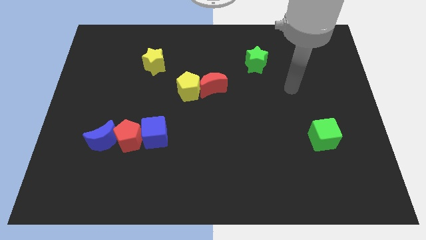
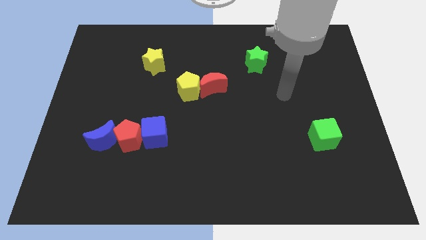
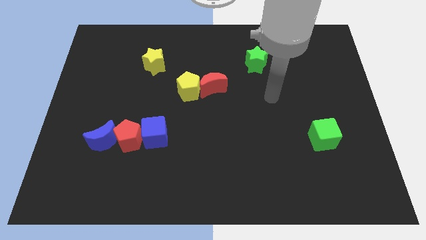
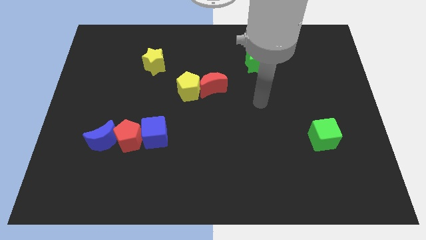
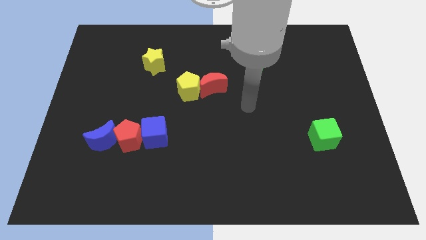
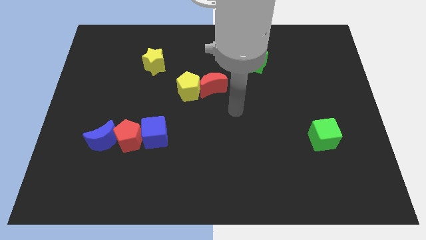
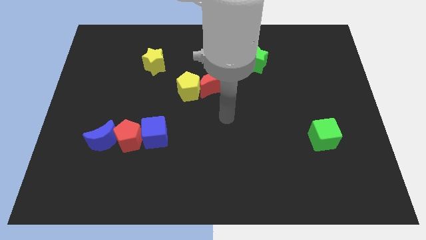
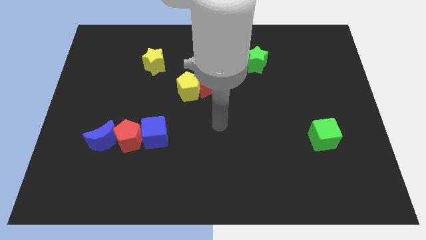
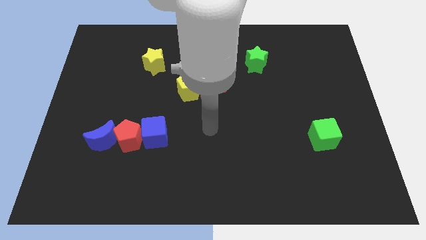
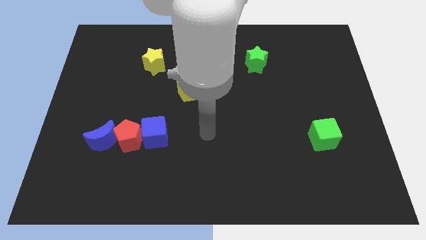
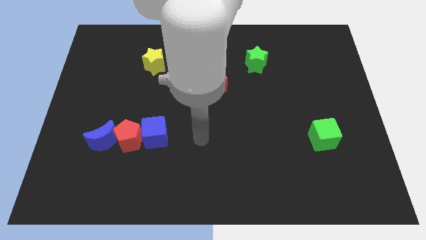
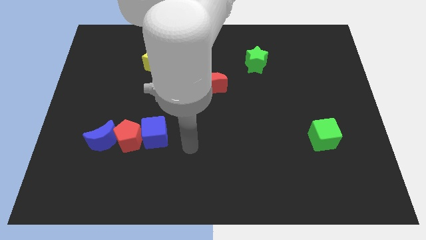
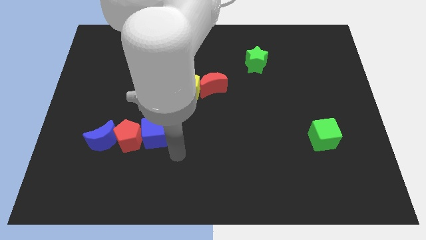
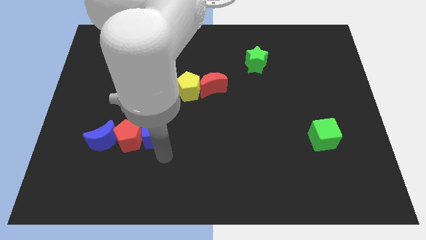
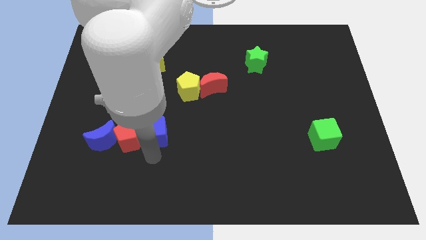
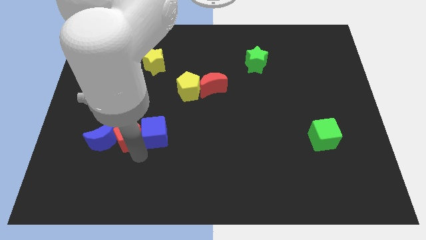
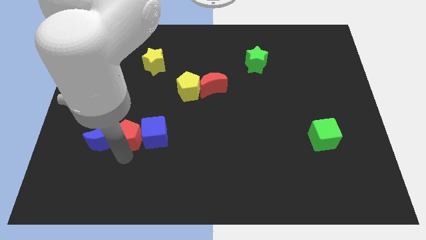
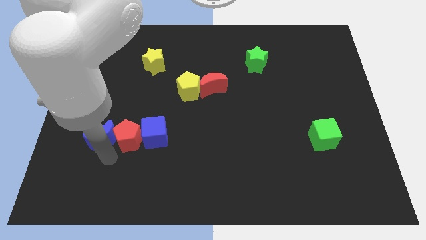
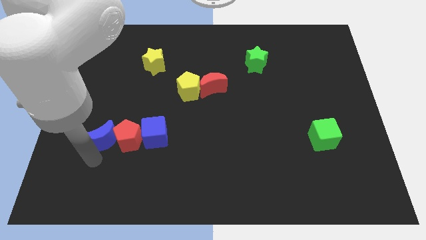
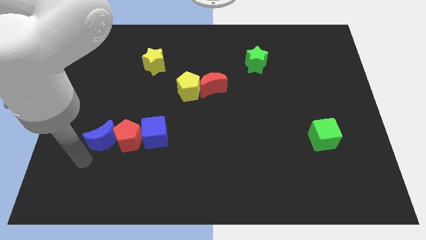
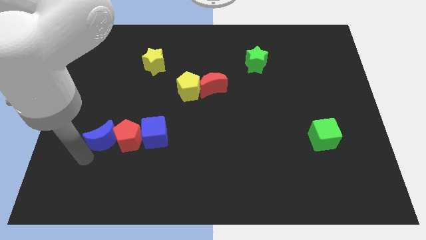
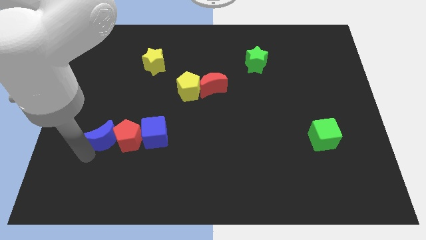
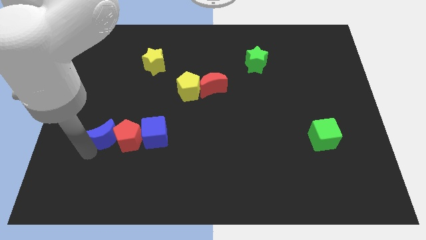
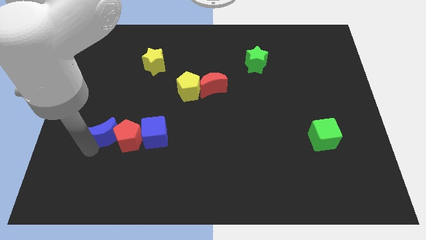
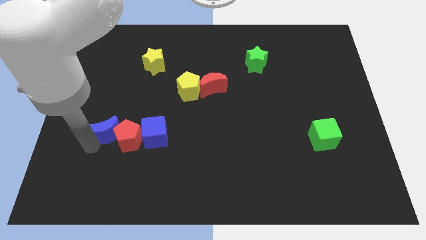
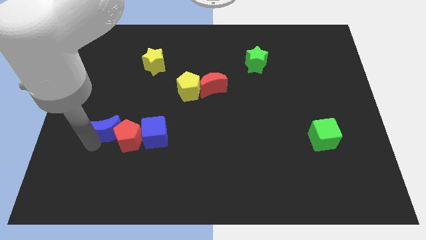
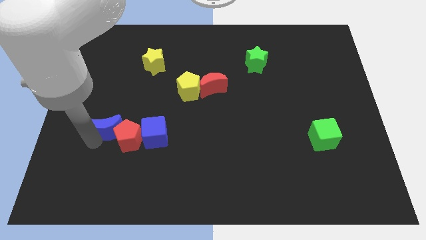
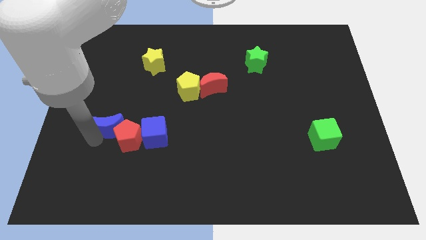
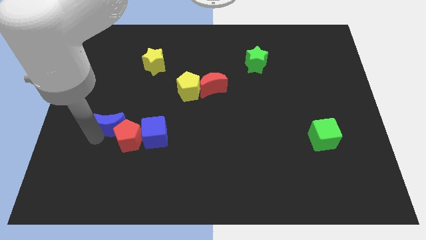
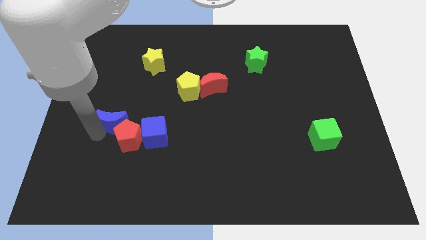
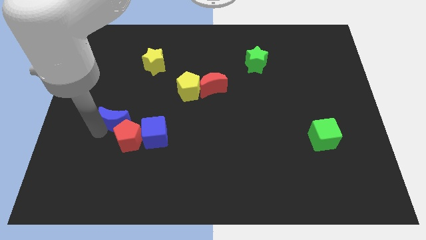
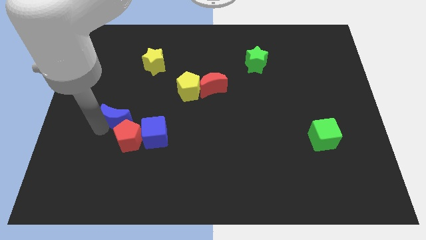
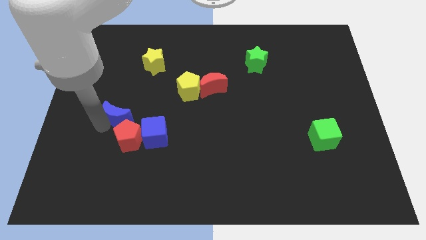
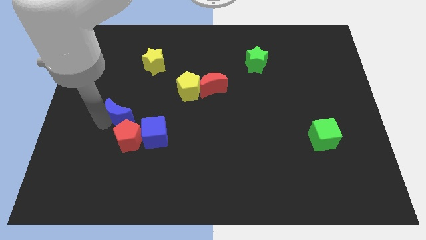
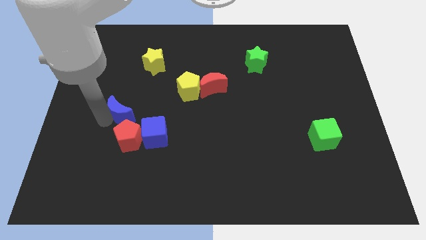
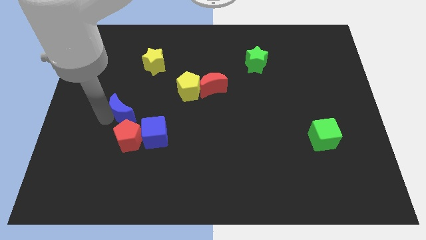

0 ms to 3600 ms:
push the blue moon a bit diagonally upwards and right

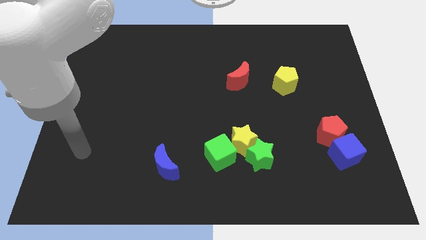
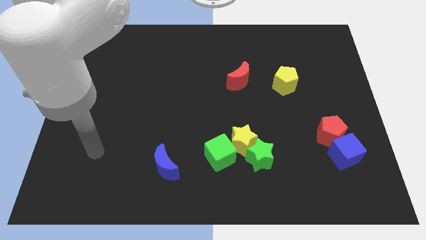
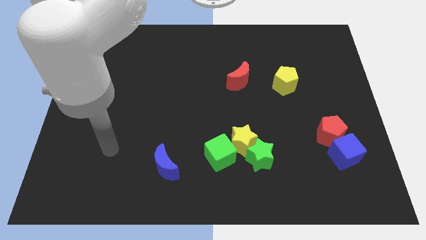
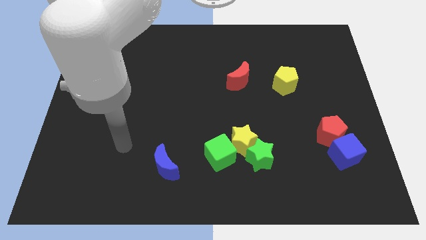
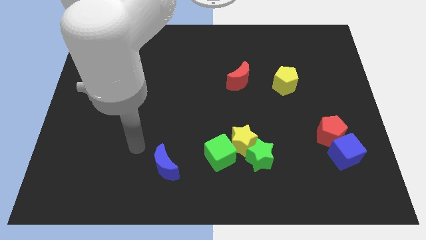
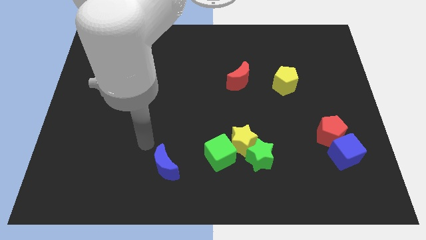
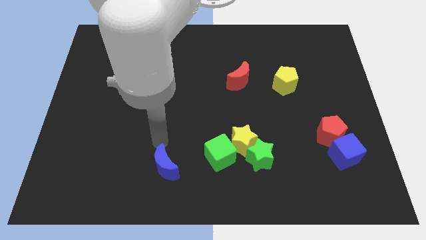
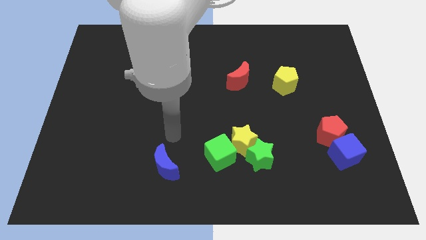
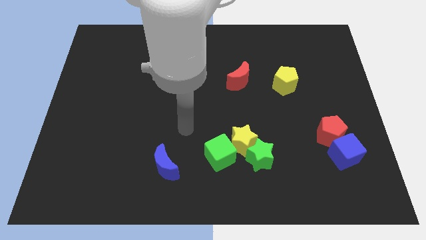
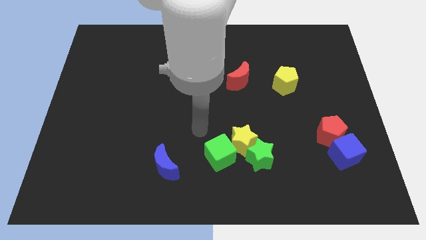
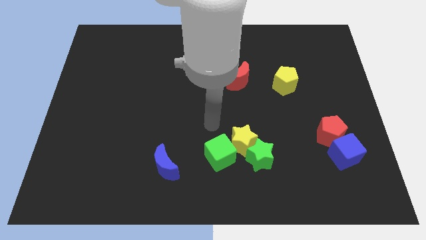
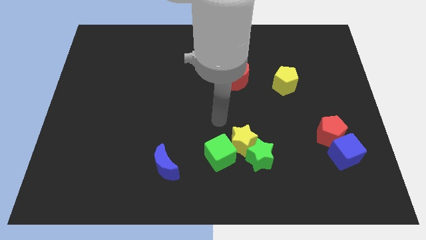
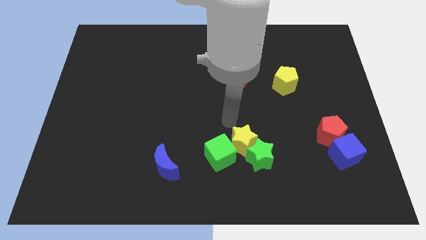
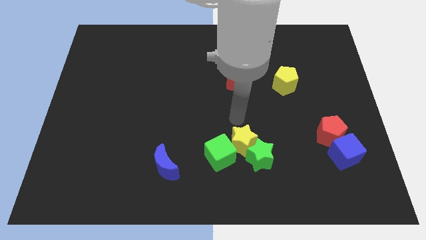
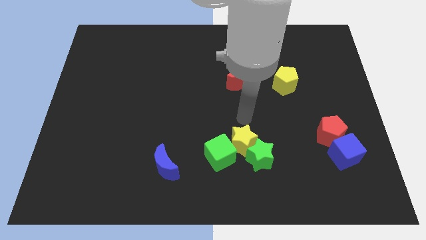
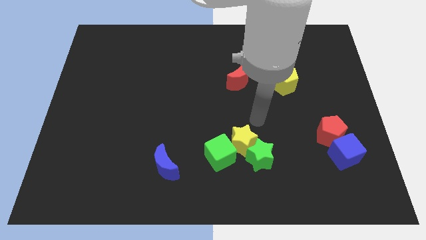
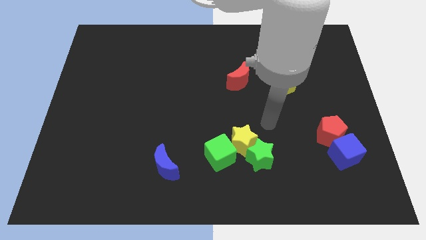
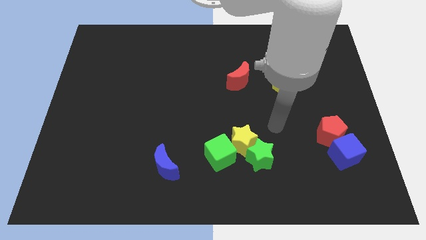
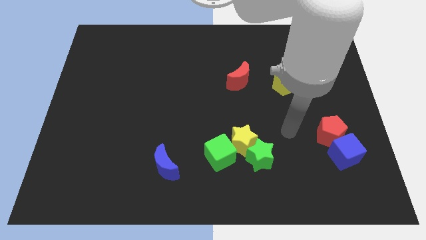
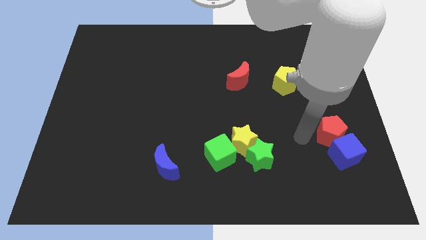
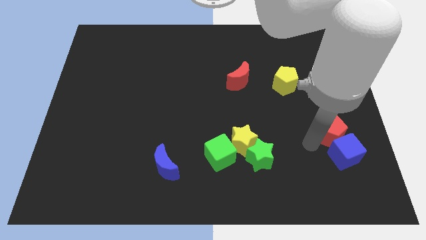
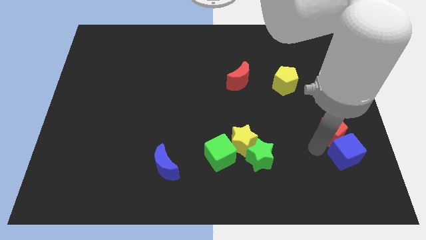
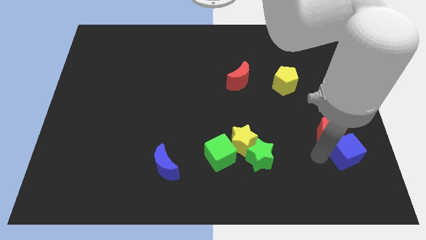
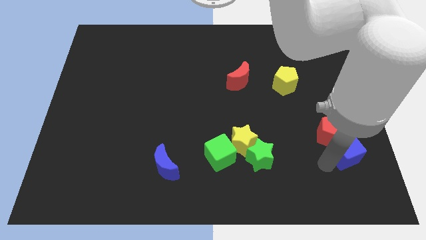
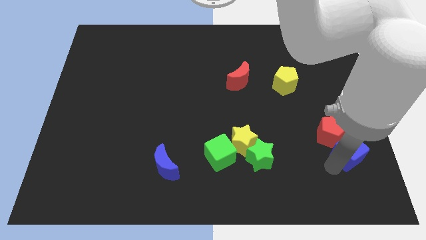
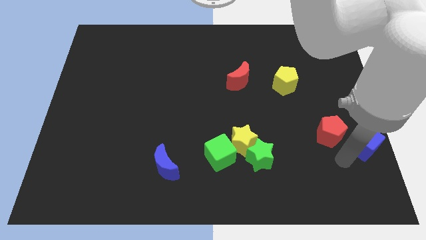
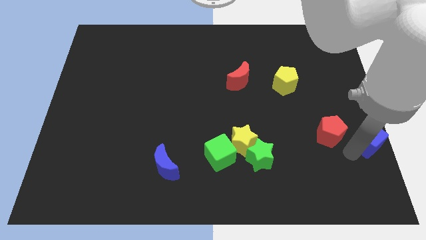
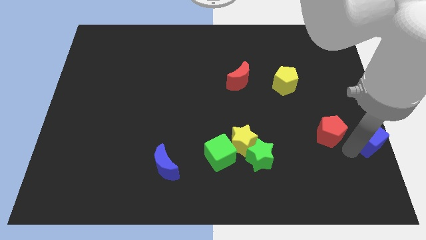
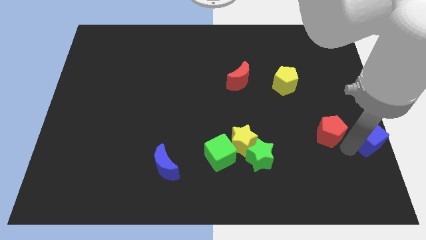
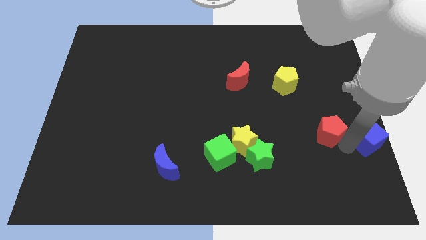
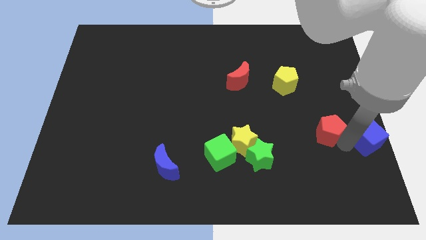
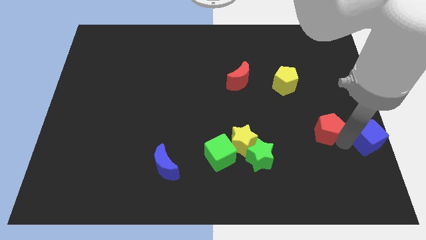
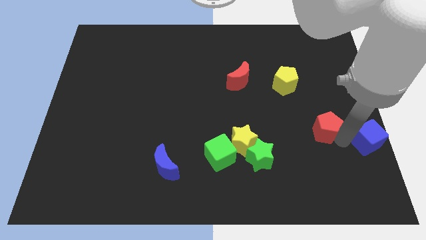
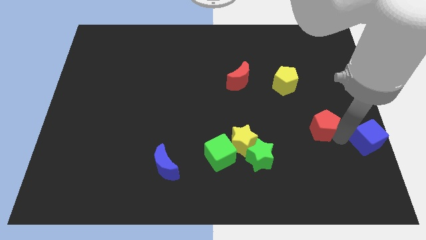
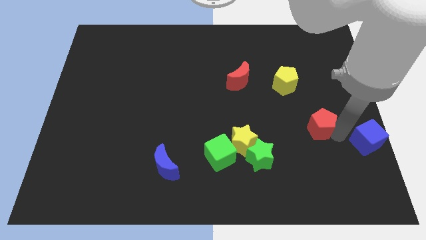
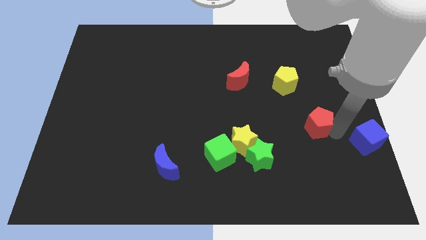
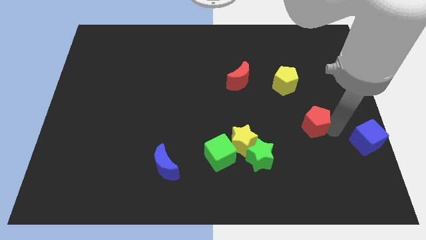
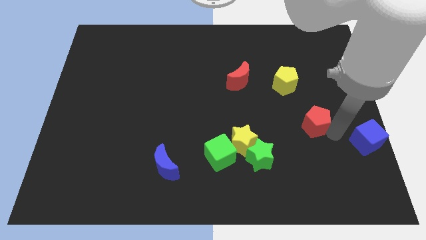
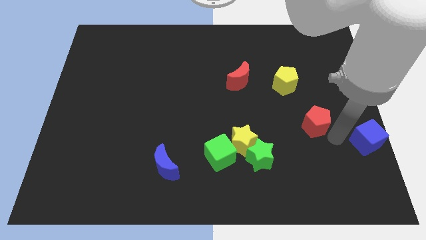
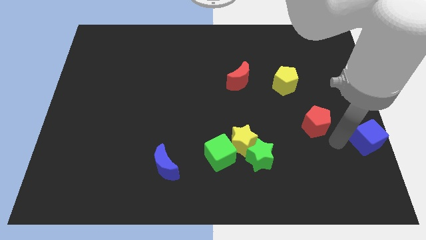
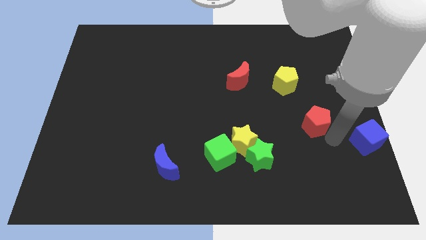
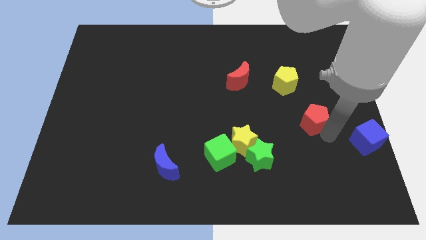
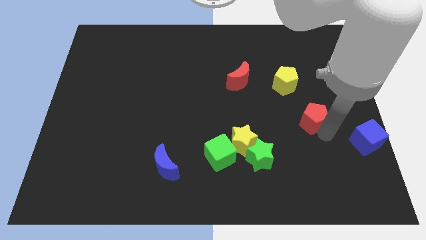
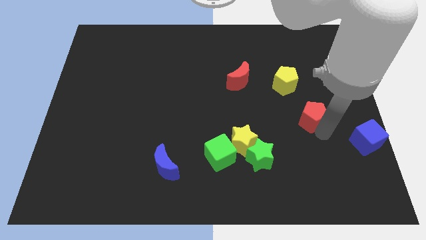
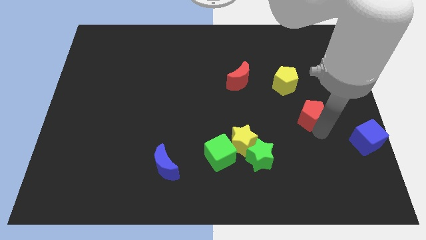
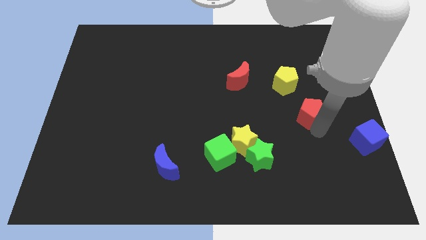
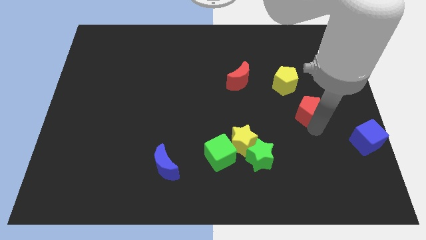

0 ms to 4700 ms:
slide the red pentagon diagonally up and left somewhat
